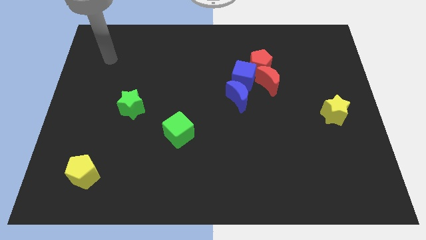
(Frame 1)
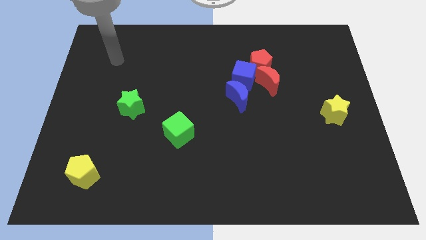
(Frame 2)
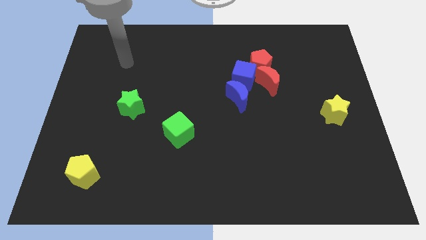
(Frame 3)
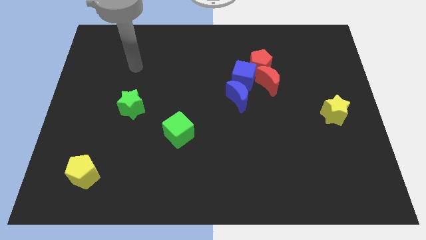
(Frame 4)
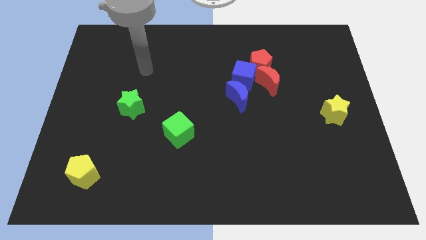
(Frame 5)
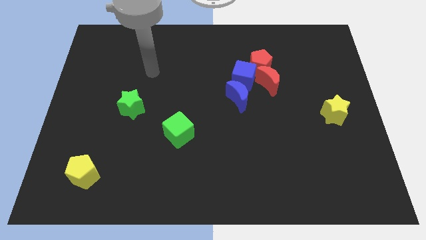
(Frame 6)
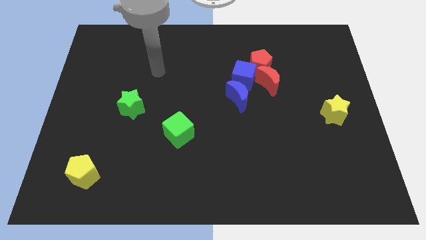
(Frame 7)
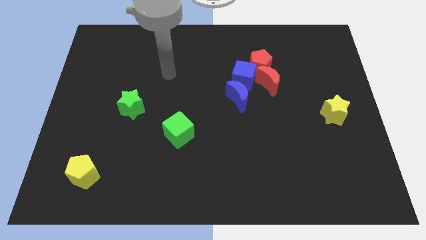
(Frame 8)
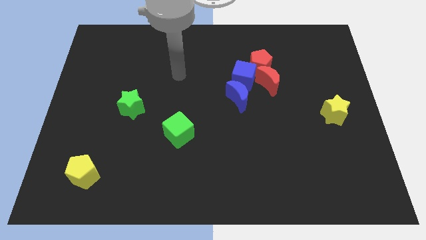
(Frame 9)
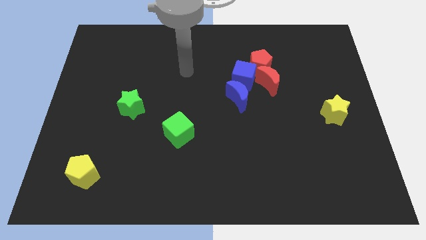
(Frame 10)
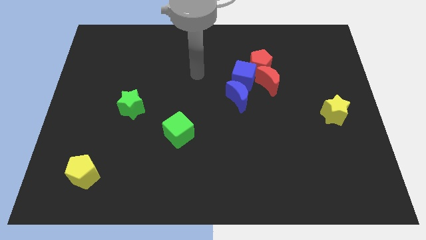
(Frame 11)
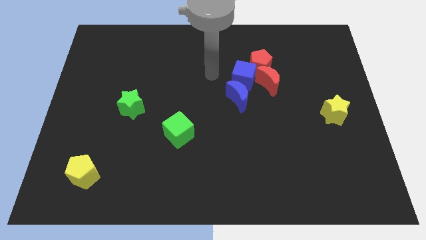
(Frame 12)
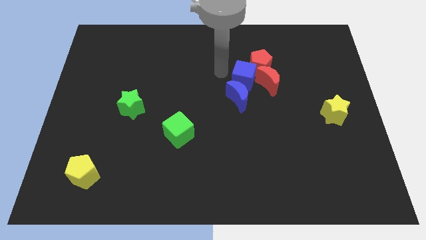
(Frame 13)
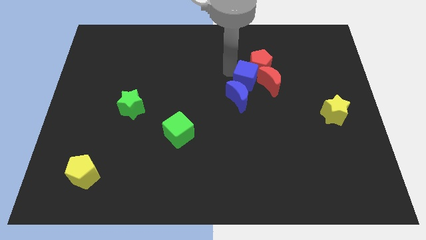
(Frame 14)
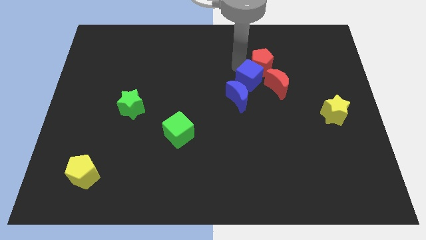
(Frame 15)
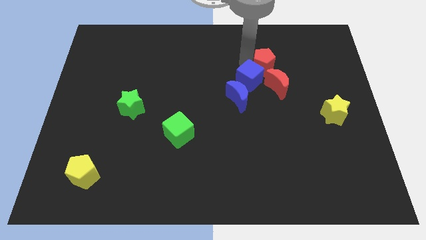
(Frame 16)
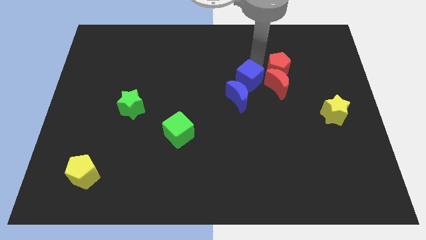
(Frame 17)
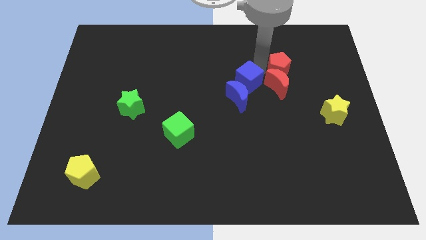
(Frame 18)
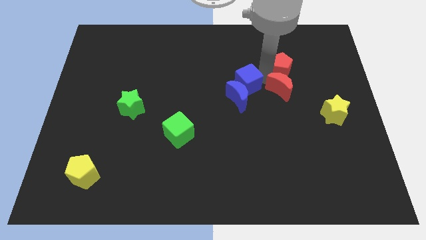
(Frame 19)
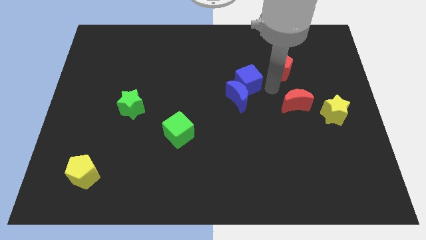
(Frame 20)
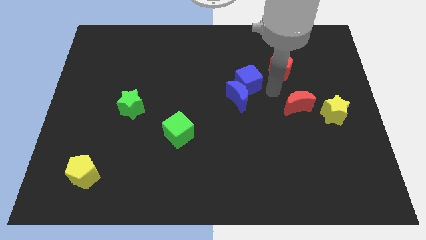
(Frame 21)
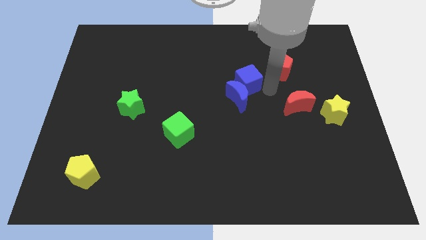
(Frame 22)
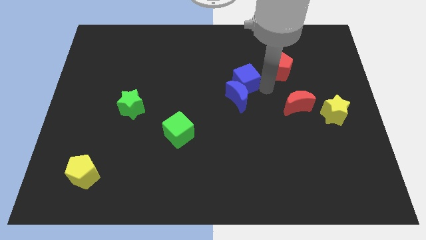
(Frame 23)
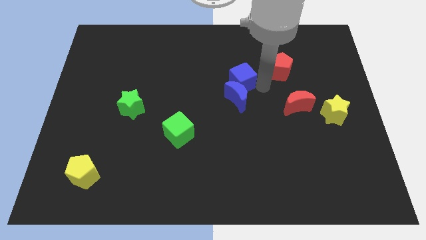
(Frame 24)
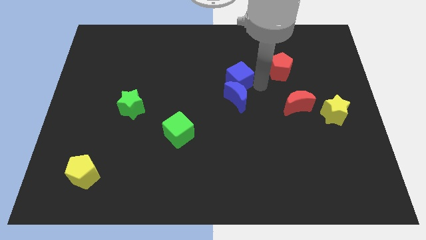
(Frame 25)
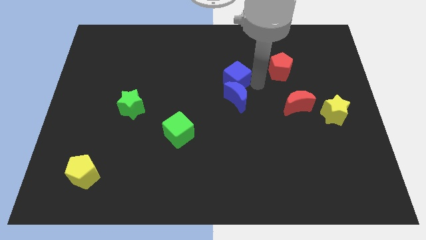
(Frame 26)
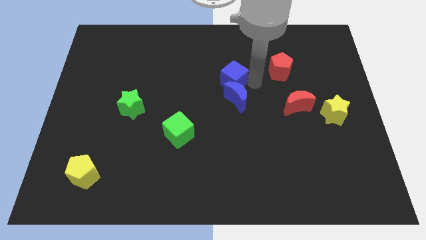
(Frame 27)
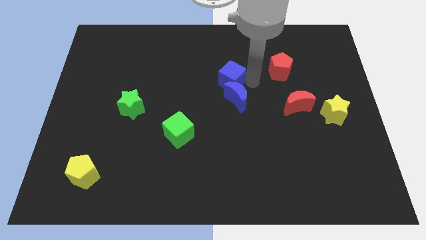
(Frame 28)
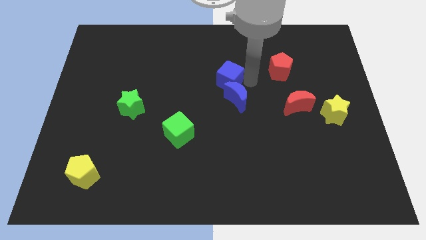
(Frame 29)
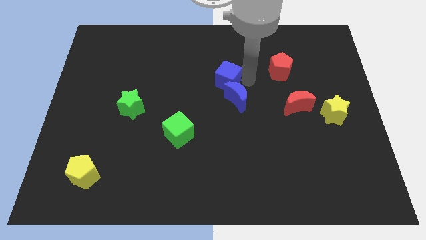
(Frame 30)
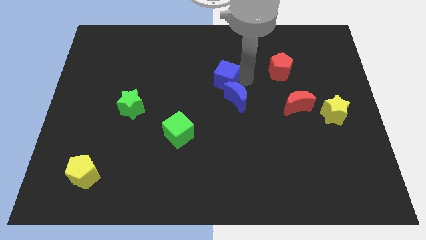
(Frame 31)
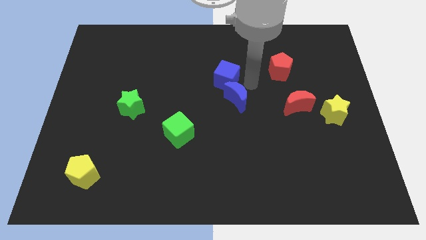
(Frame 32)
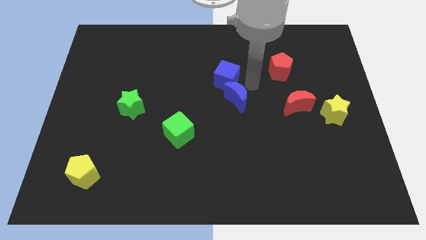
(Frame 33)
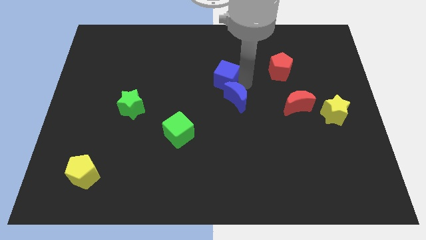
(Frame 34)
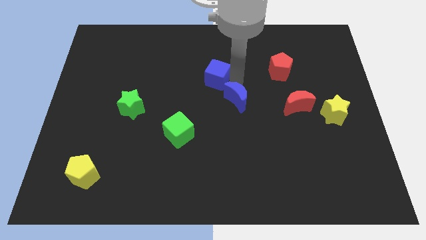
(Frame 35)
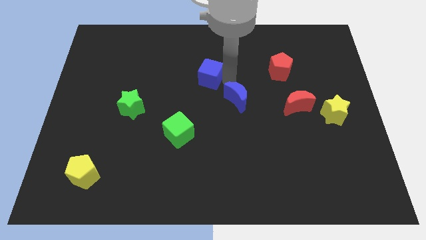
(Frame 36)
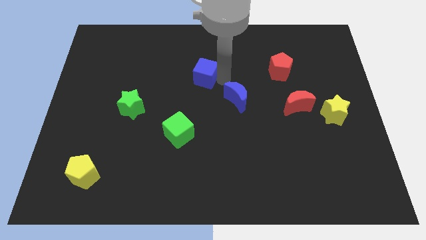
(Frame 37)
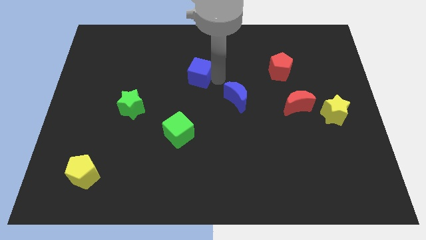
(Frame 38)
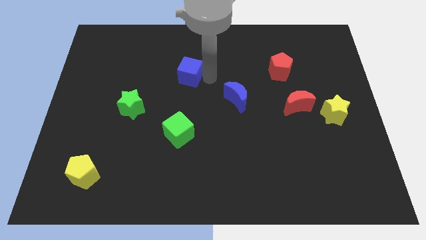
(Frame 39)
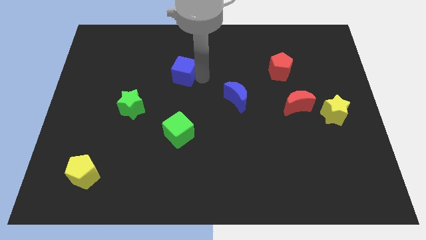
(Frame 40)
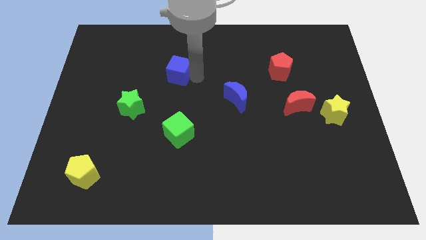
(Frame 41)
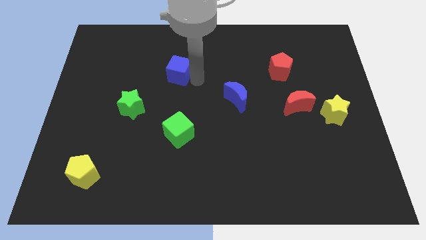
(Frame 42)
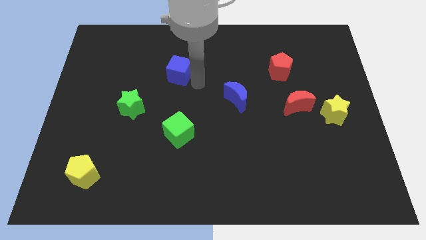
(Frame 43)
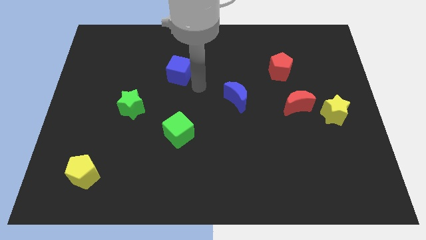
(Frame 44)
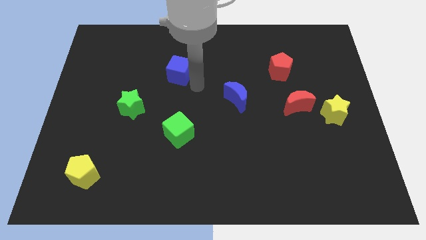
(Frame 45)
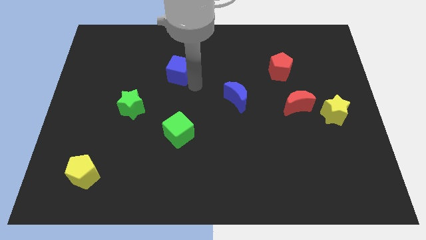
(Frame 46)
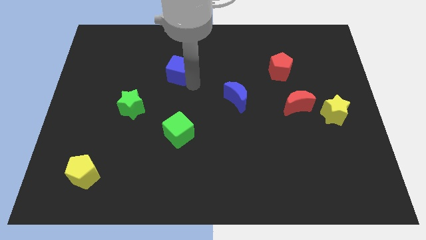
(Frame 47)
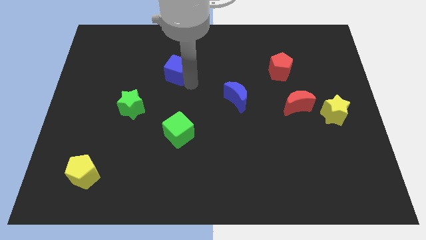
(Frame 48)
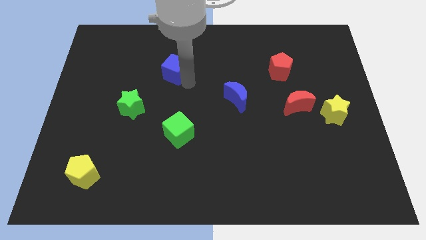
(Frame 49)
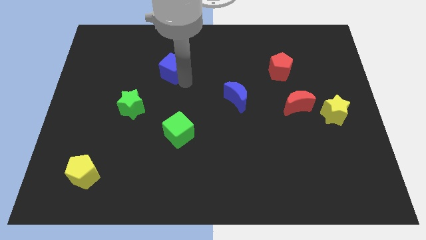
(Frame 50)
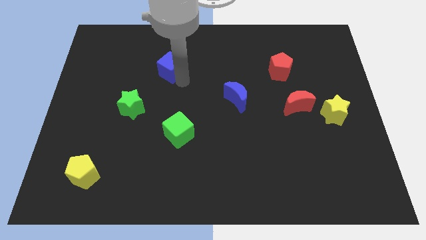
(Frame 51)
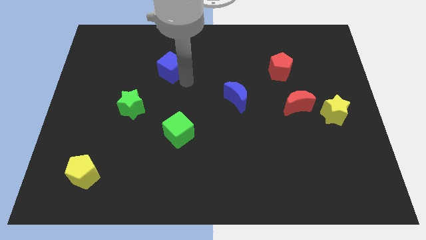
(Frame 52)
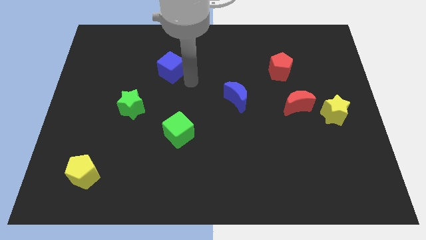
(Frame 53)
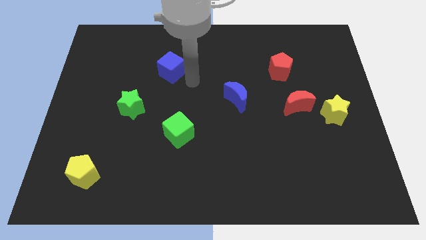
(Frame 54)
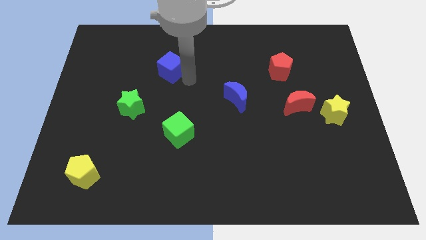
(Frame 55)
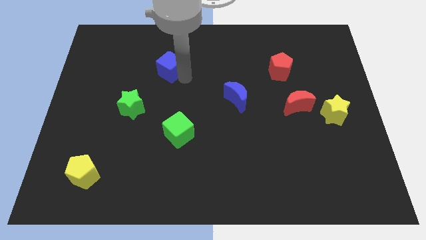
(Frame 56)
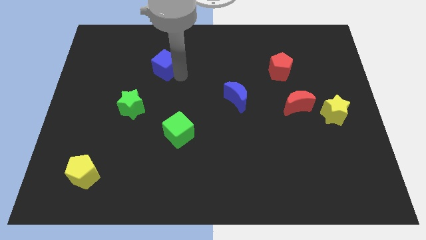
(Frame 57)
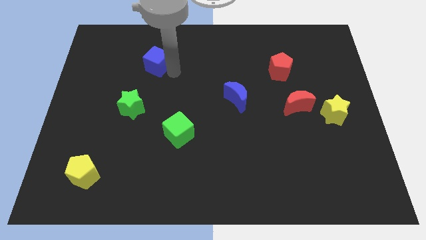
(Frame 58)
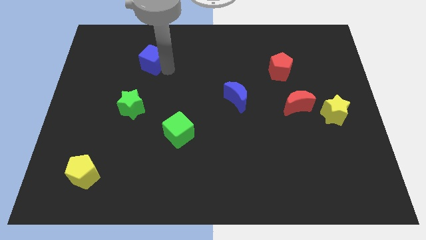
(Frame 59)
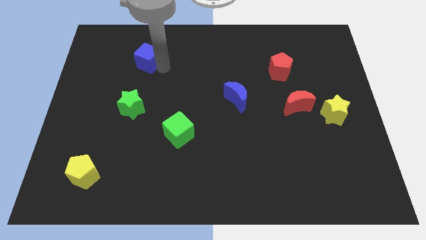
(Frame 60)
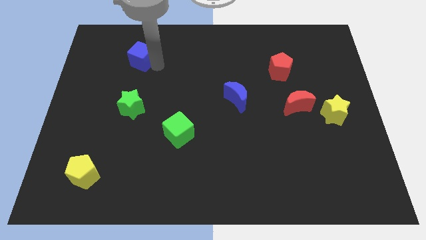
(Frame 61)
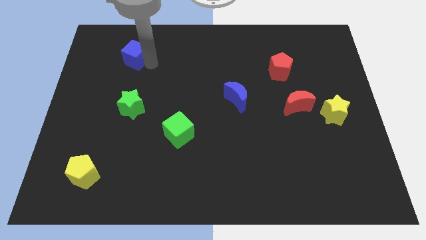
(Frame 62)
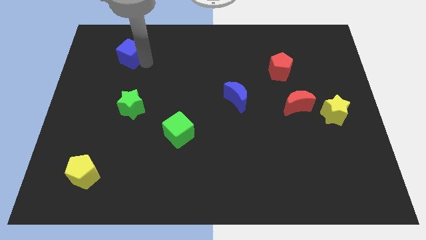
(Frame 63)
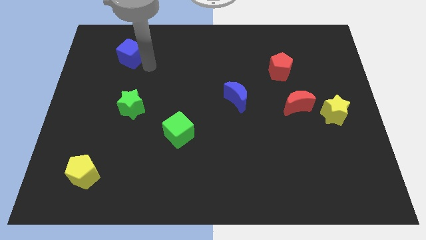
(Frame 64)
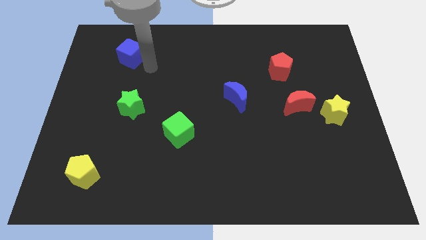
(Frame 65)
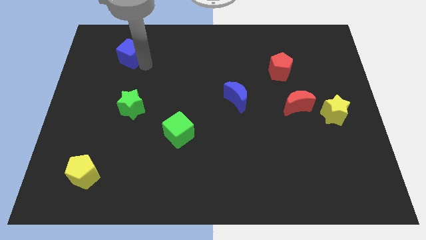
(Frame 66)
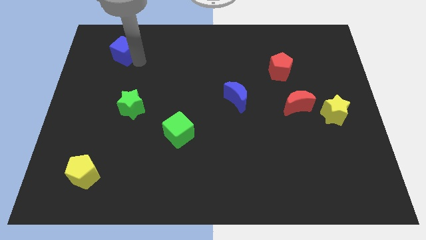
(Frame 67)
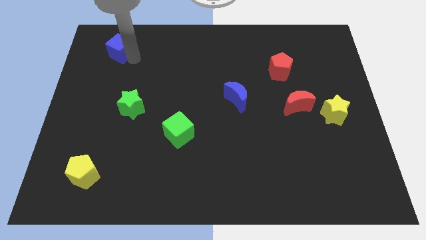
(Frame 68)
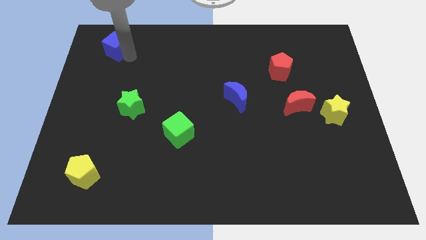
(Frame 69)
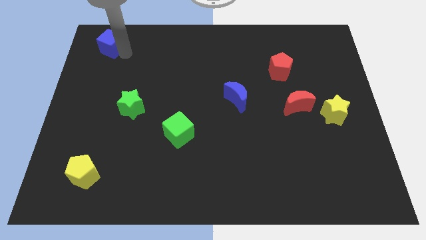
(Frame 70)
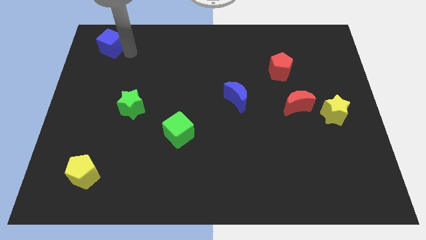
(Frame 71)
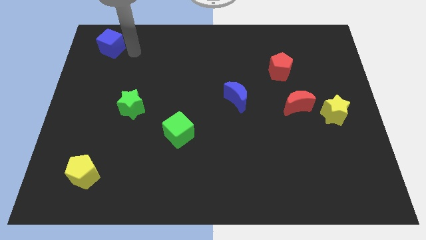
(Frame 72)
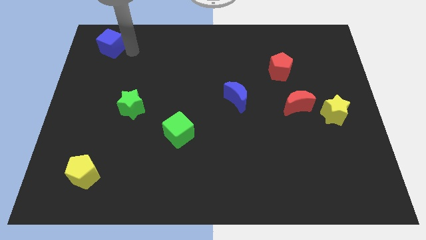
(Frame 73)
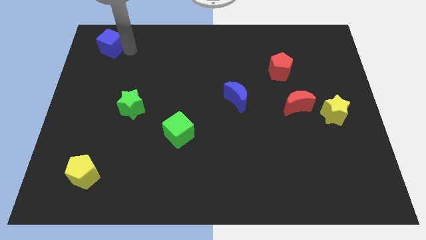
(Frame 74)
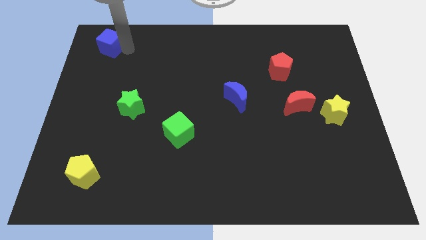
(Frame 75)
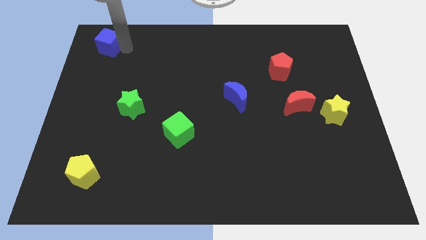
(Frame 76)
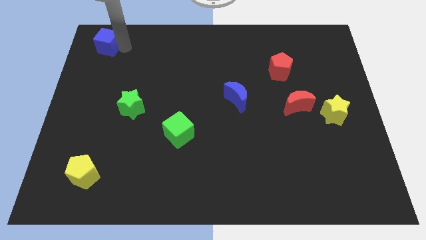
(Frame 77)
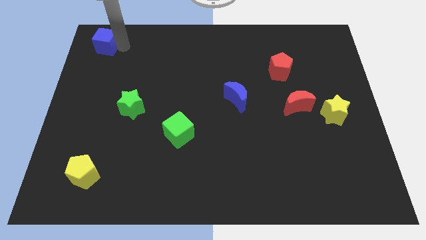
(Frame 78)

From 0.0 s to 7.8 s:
put the blue cube to the upper left corner
